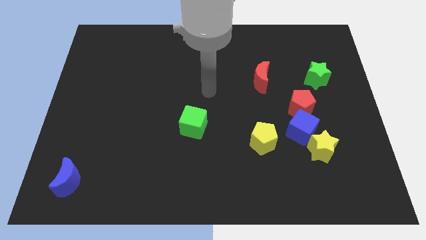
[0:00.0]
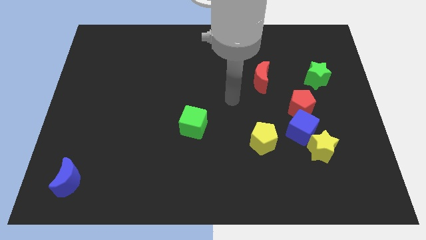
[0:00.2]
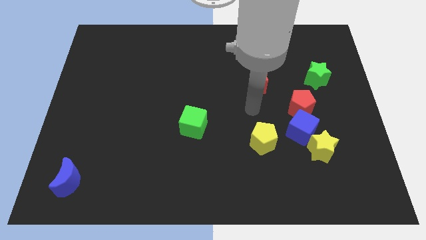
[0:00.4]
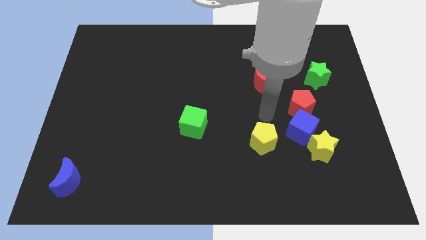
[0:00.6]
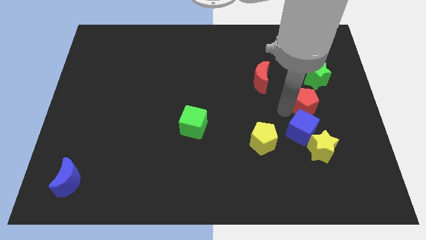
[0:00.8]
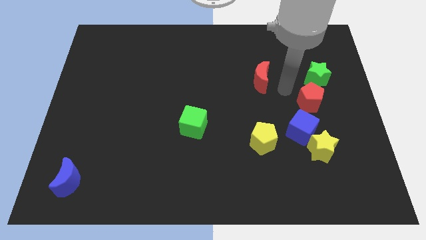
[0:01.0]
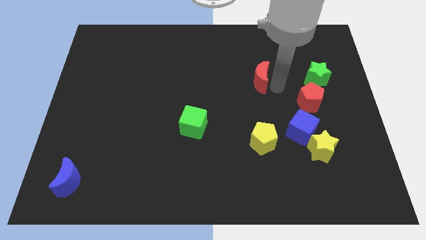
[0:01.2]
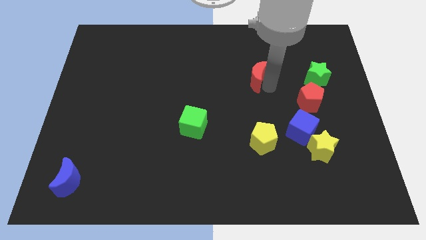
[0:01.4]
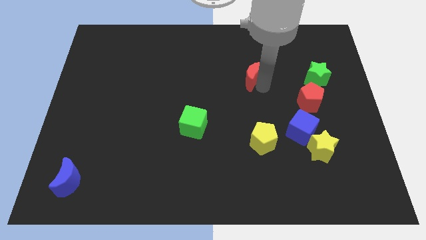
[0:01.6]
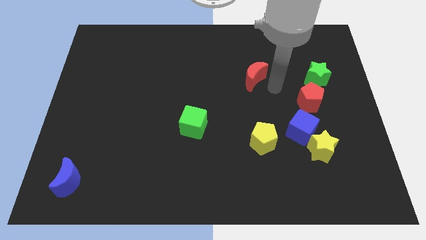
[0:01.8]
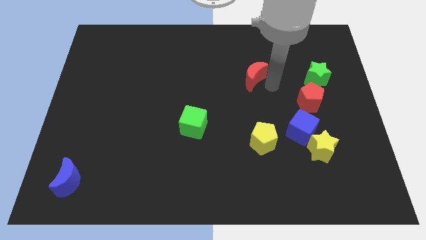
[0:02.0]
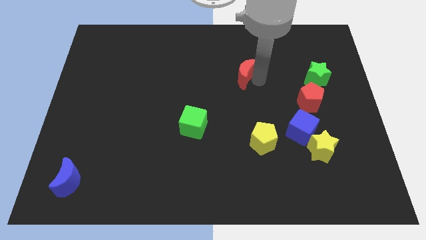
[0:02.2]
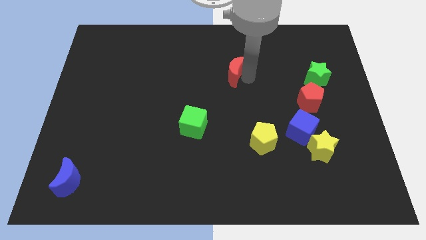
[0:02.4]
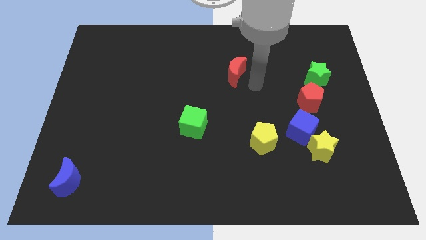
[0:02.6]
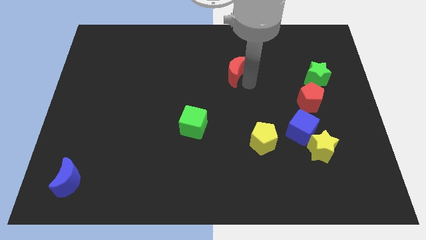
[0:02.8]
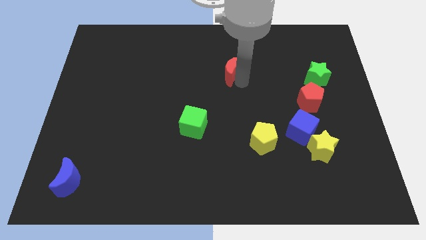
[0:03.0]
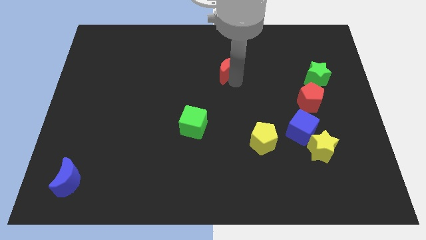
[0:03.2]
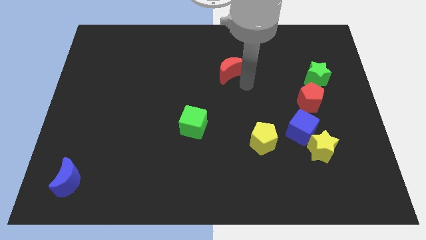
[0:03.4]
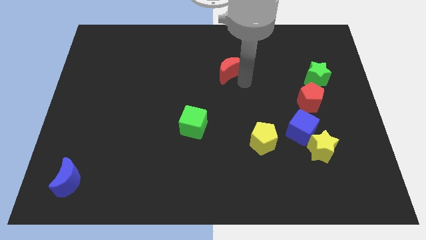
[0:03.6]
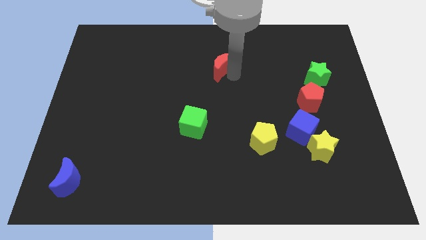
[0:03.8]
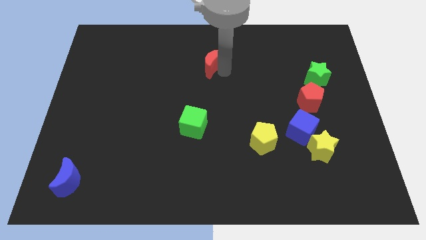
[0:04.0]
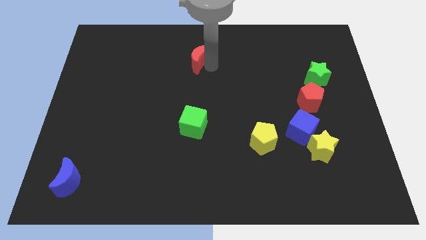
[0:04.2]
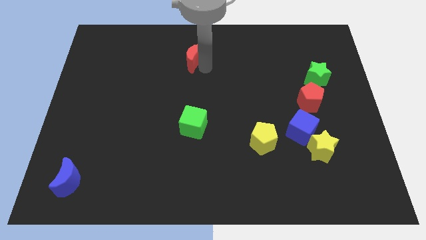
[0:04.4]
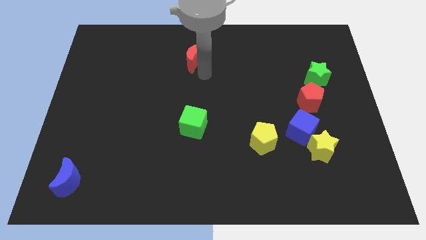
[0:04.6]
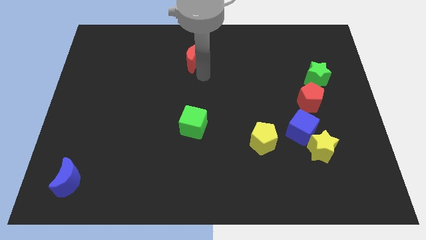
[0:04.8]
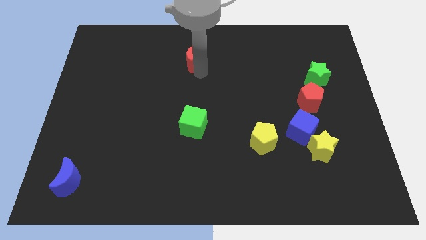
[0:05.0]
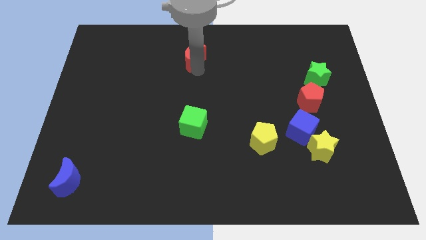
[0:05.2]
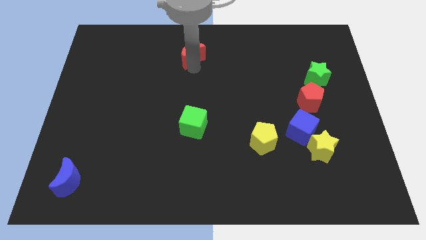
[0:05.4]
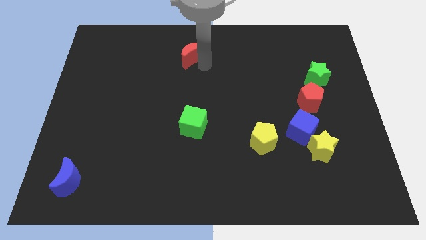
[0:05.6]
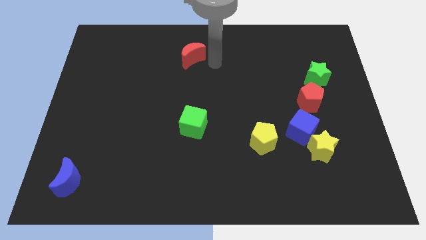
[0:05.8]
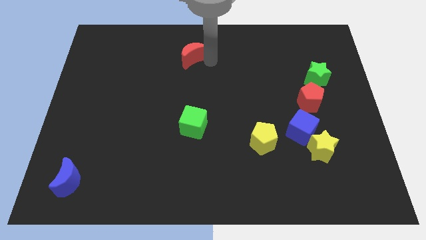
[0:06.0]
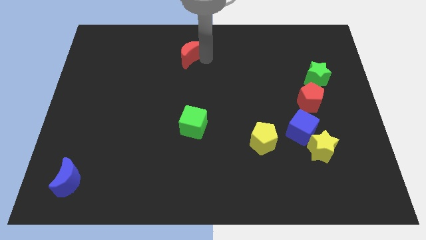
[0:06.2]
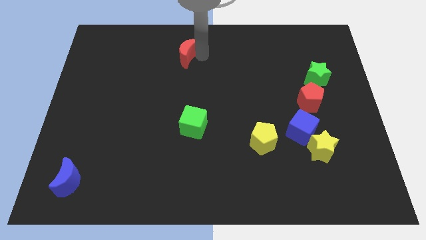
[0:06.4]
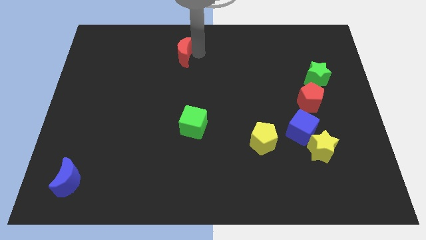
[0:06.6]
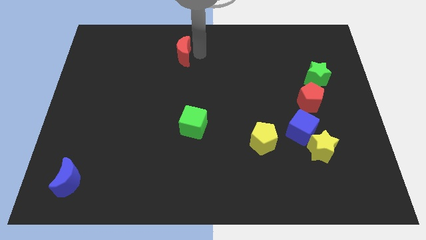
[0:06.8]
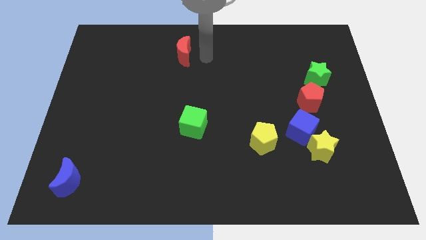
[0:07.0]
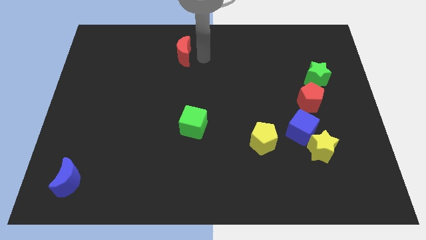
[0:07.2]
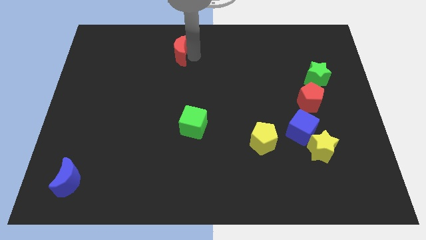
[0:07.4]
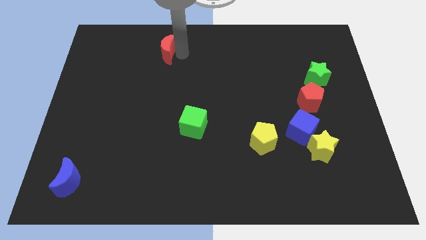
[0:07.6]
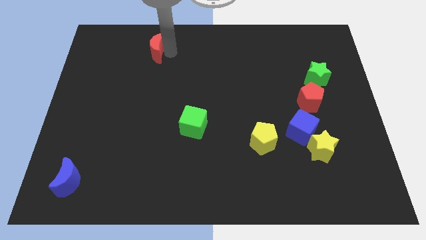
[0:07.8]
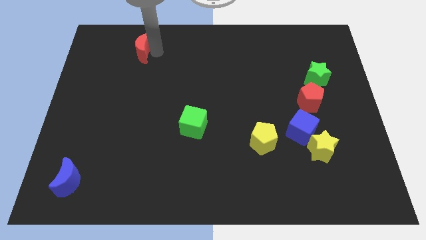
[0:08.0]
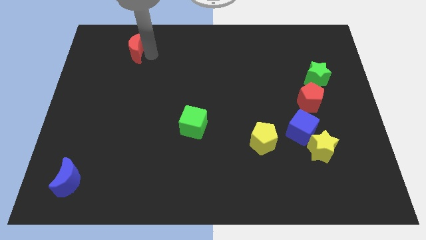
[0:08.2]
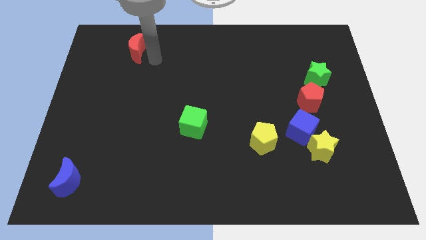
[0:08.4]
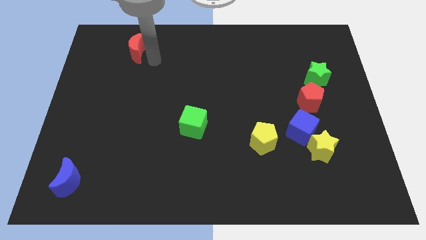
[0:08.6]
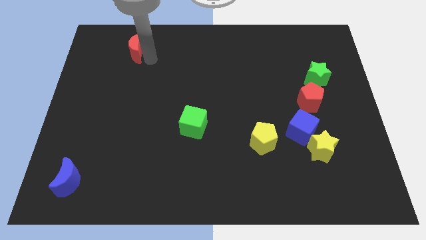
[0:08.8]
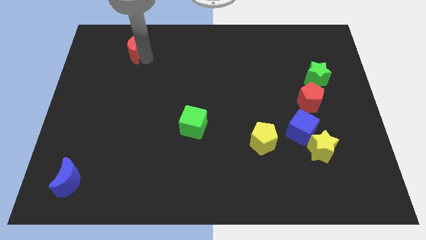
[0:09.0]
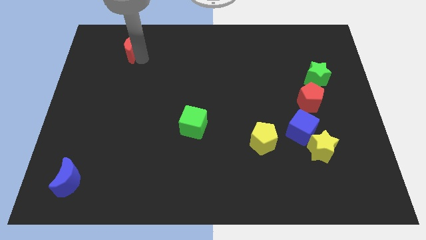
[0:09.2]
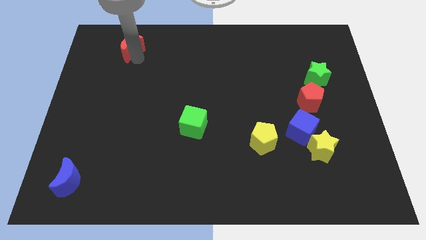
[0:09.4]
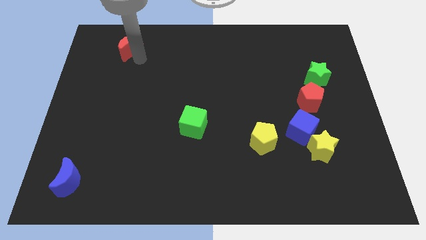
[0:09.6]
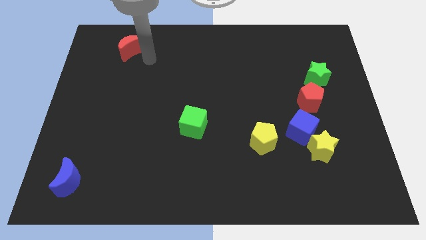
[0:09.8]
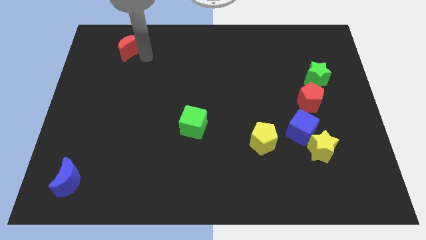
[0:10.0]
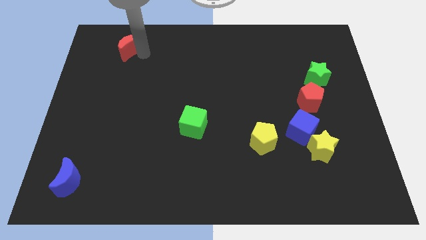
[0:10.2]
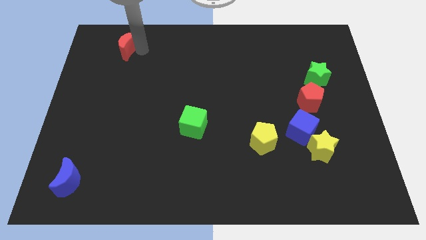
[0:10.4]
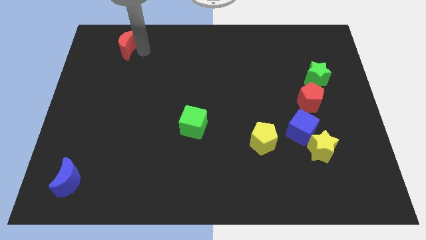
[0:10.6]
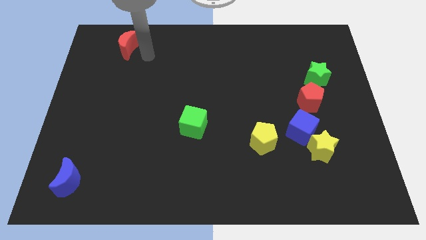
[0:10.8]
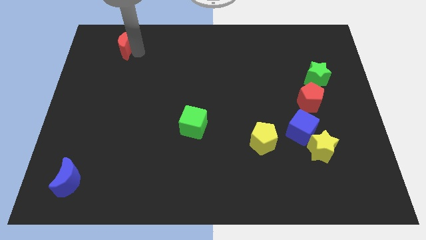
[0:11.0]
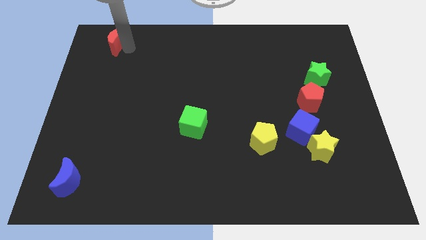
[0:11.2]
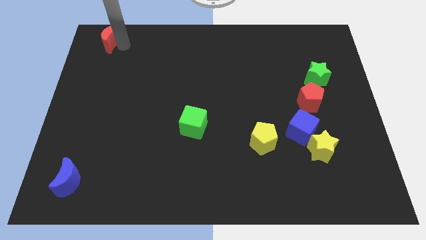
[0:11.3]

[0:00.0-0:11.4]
slide the red moon to the top left of the board

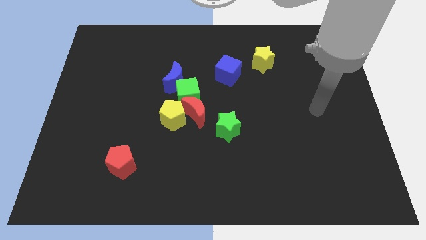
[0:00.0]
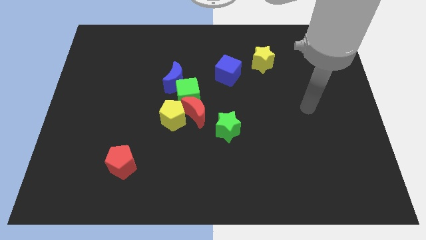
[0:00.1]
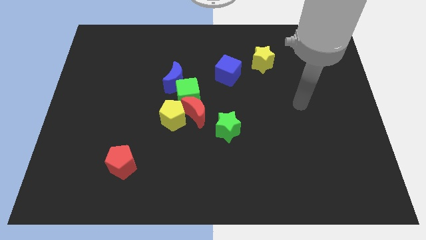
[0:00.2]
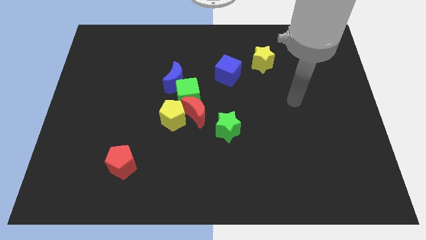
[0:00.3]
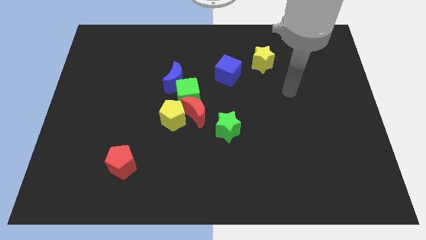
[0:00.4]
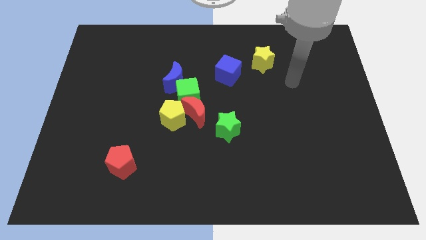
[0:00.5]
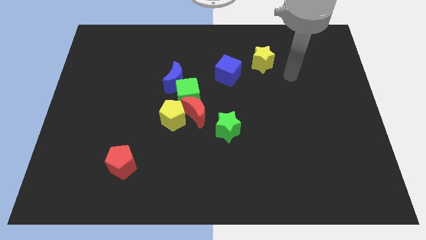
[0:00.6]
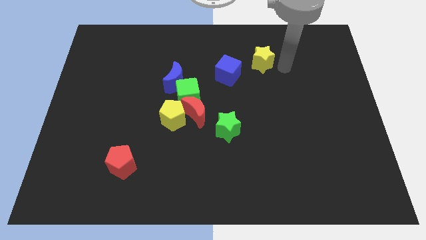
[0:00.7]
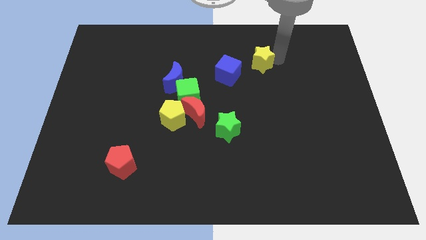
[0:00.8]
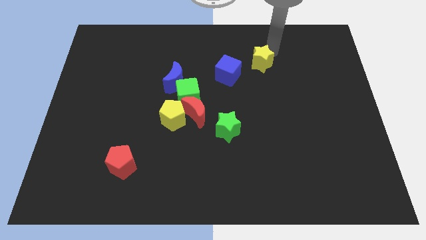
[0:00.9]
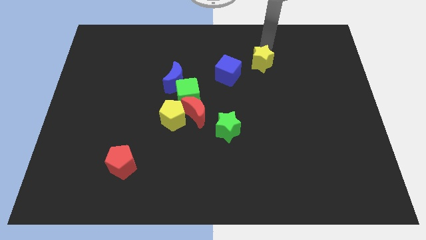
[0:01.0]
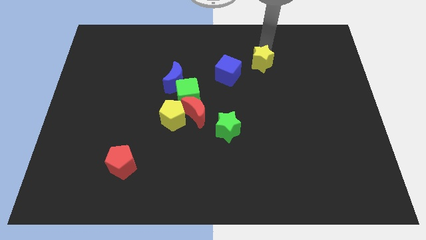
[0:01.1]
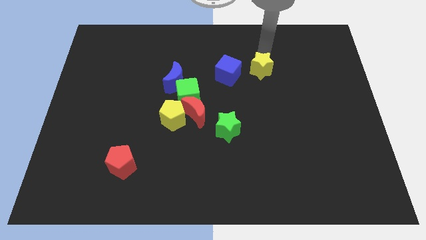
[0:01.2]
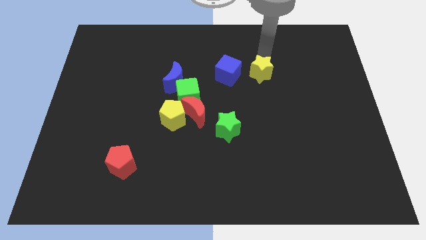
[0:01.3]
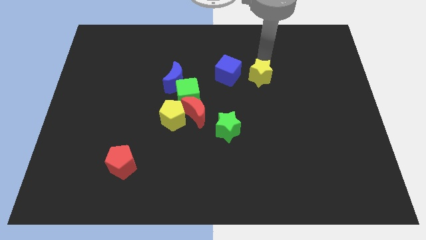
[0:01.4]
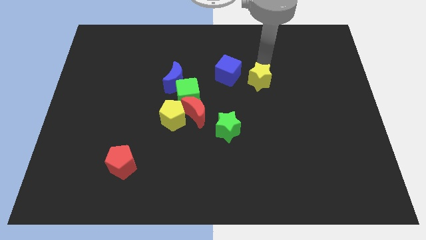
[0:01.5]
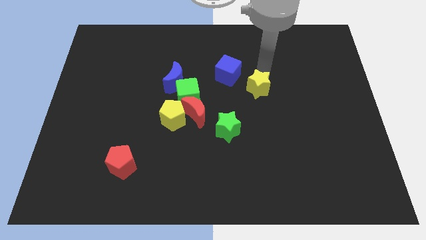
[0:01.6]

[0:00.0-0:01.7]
push the yellow star to the center
